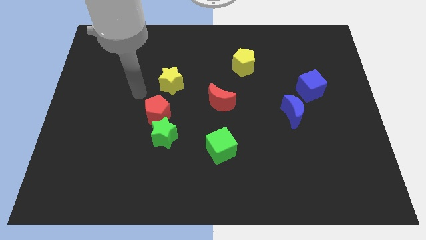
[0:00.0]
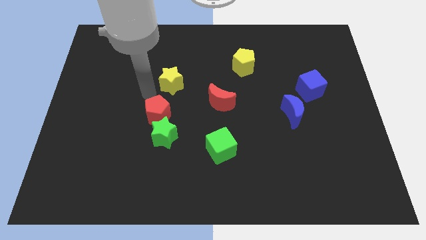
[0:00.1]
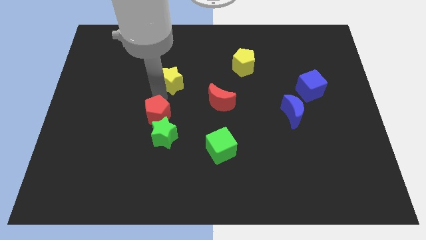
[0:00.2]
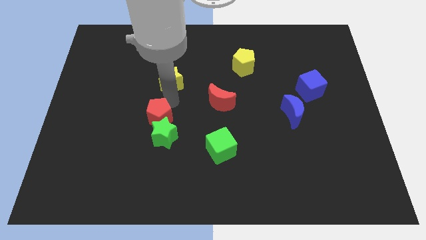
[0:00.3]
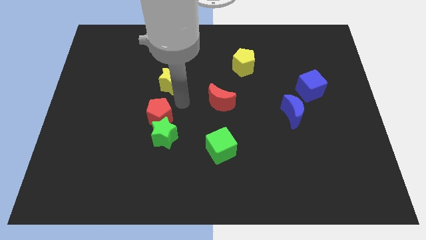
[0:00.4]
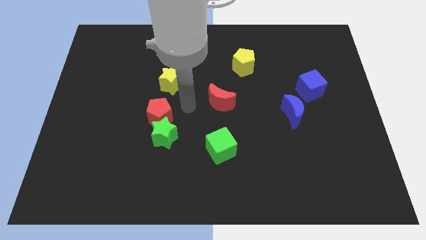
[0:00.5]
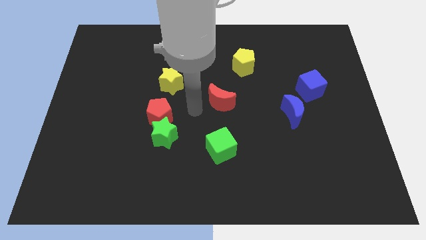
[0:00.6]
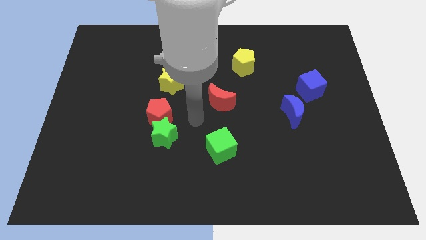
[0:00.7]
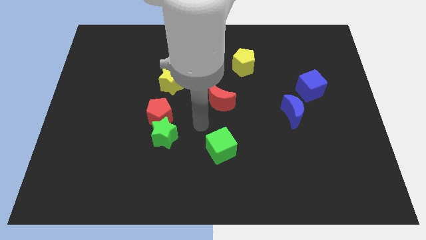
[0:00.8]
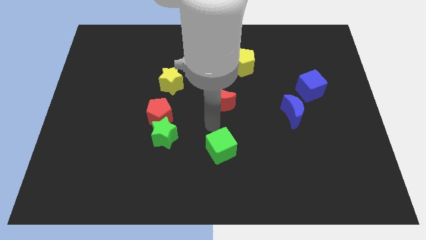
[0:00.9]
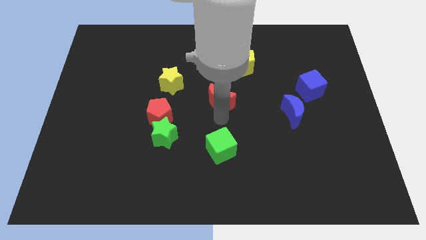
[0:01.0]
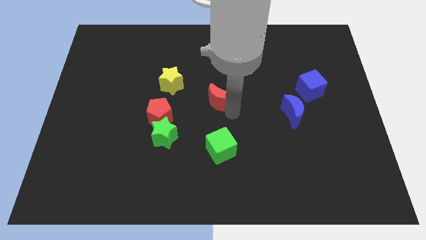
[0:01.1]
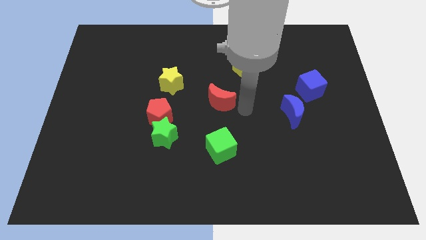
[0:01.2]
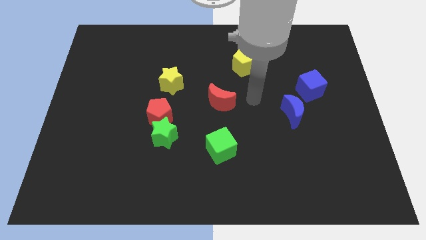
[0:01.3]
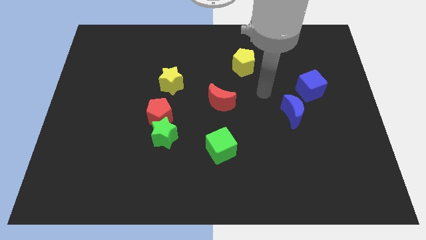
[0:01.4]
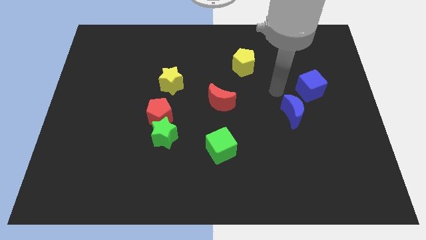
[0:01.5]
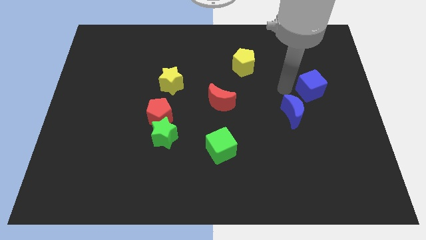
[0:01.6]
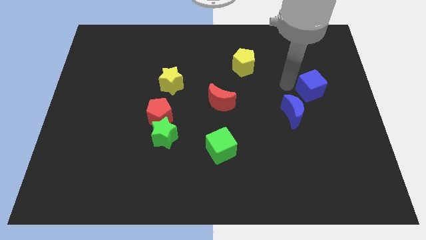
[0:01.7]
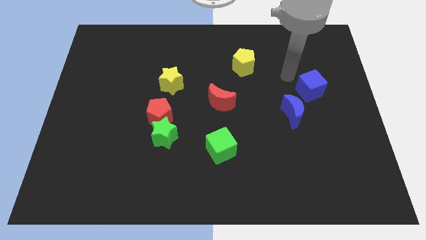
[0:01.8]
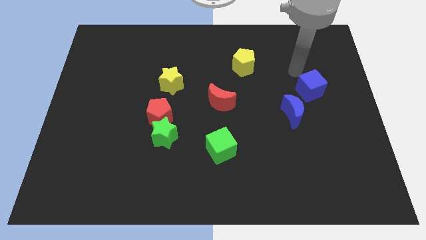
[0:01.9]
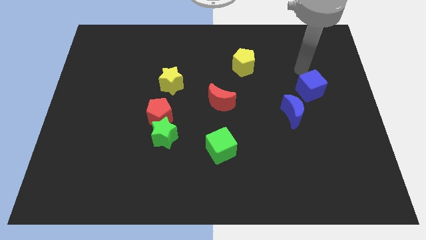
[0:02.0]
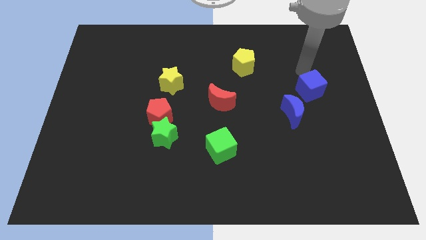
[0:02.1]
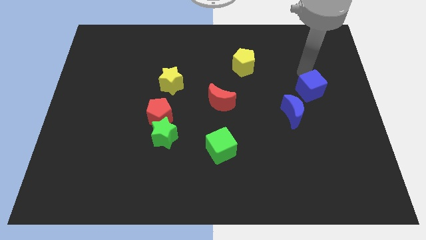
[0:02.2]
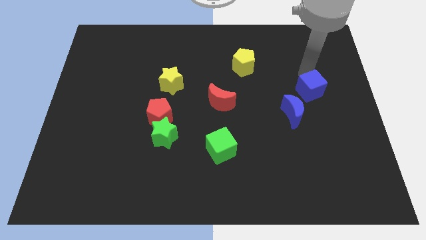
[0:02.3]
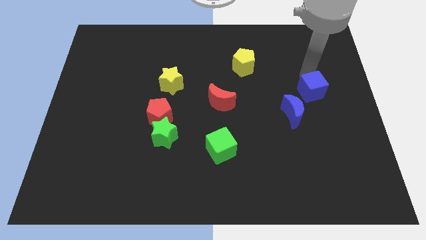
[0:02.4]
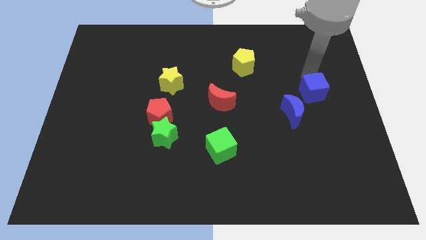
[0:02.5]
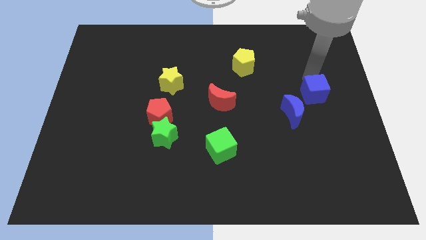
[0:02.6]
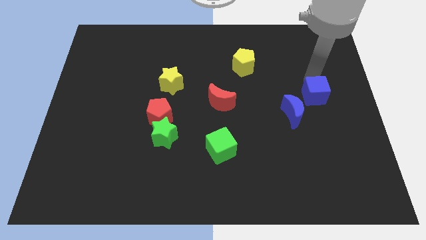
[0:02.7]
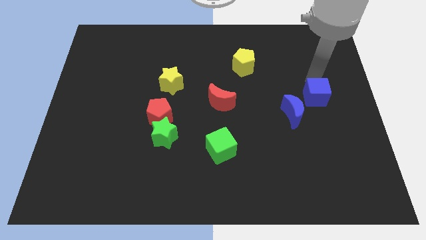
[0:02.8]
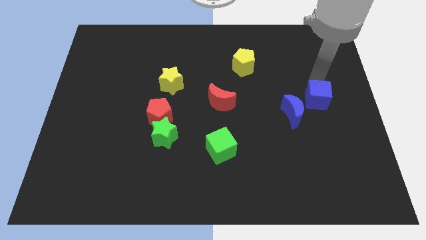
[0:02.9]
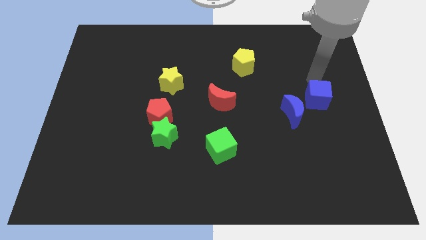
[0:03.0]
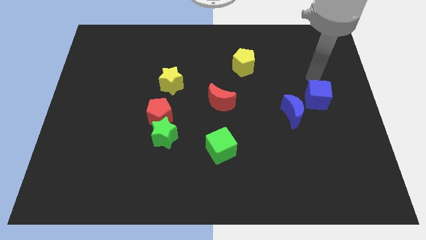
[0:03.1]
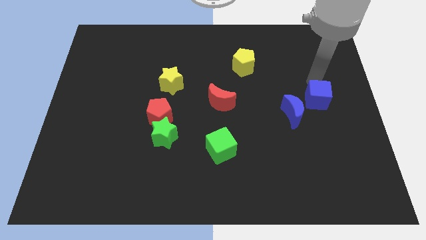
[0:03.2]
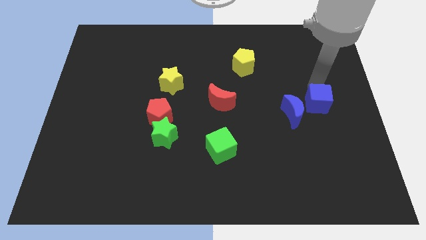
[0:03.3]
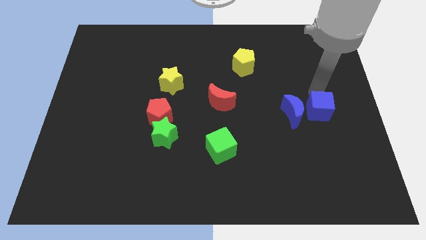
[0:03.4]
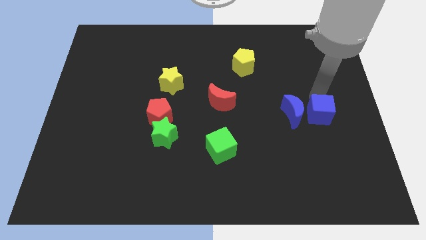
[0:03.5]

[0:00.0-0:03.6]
move the blue cube downwards a little

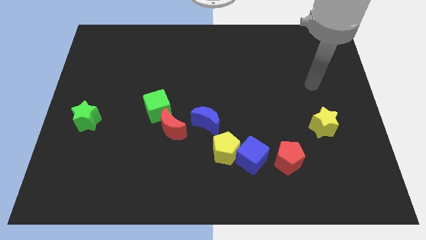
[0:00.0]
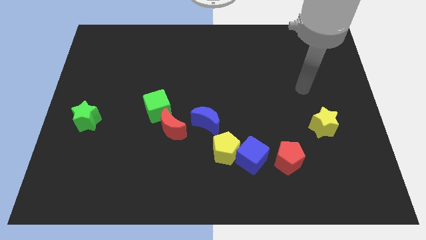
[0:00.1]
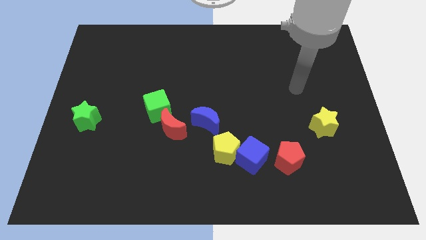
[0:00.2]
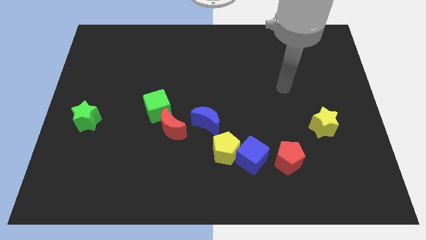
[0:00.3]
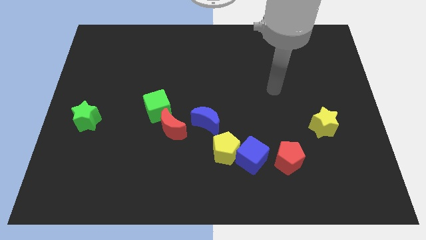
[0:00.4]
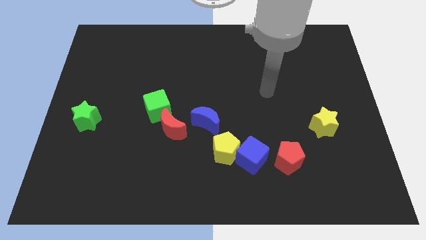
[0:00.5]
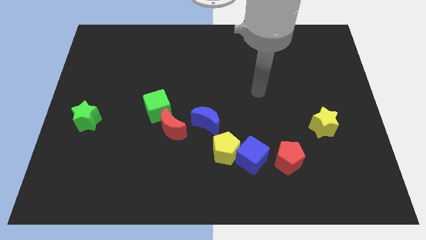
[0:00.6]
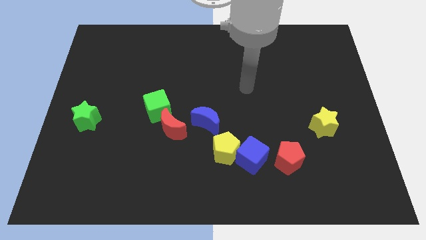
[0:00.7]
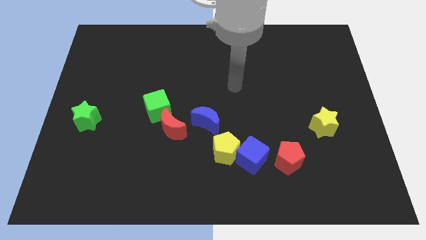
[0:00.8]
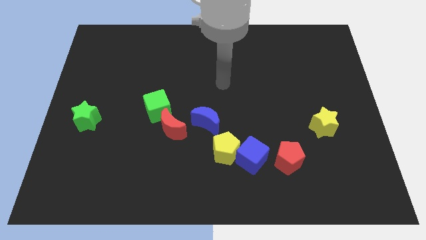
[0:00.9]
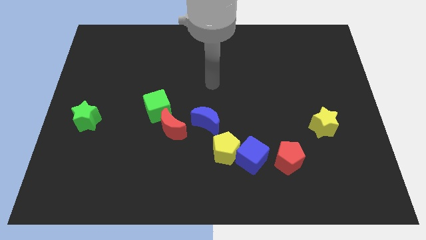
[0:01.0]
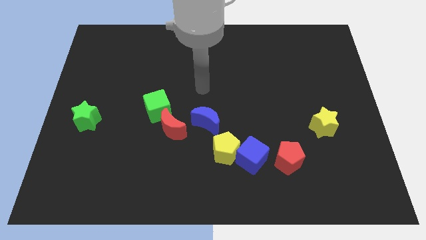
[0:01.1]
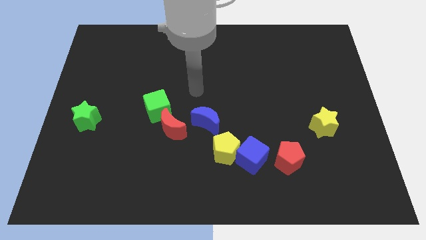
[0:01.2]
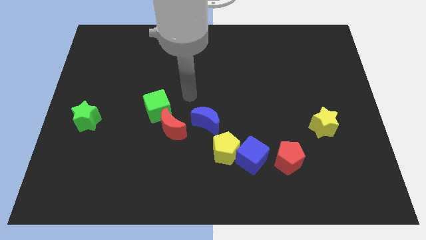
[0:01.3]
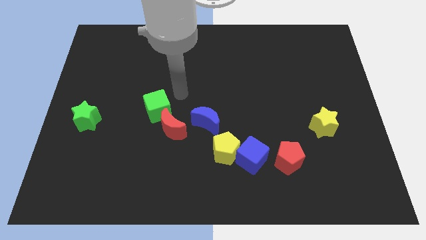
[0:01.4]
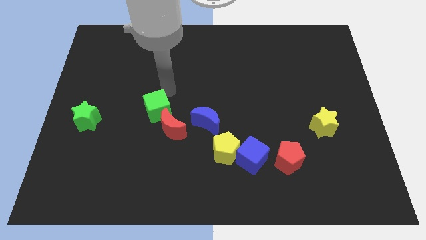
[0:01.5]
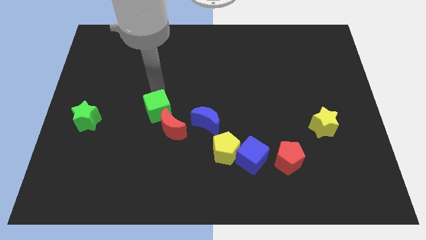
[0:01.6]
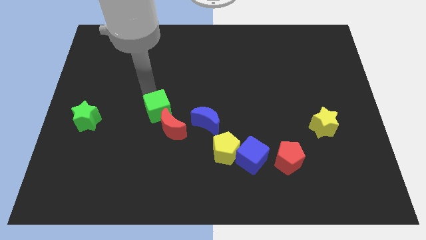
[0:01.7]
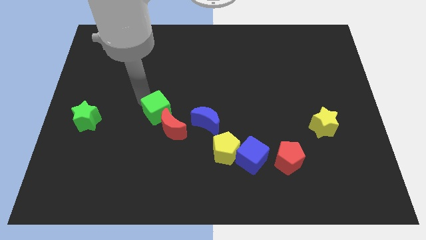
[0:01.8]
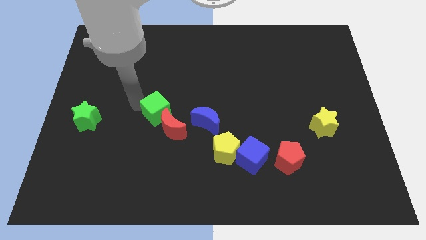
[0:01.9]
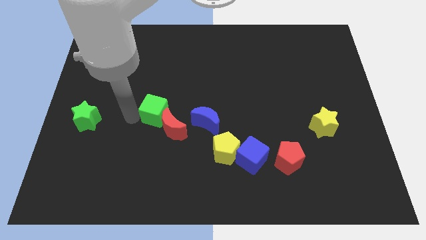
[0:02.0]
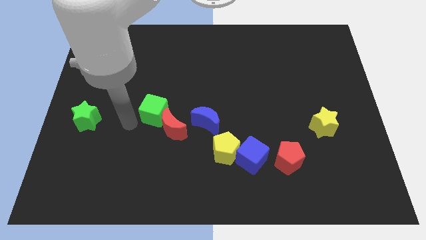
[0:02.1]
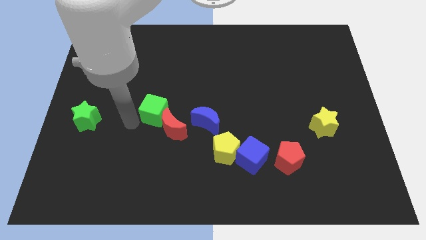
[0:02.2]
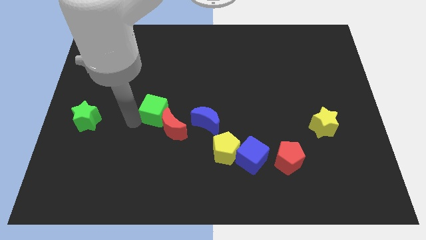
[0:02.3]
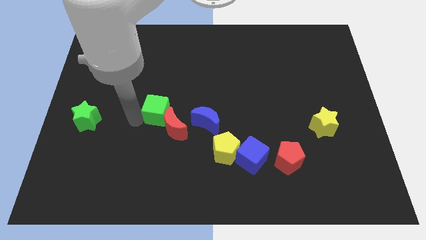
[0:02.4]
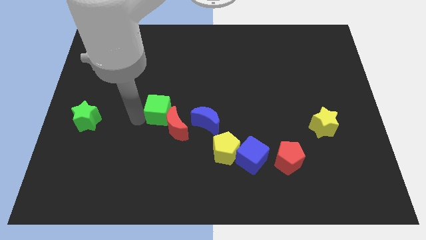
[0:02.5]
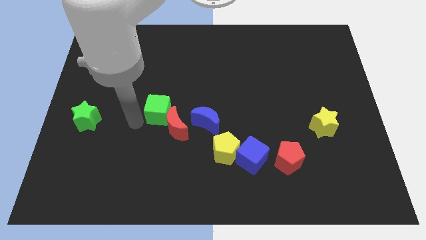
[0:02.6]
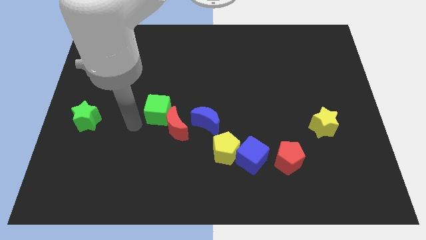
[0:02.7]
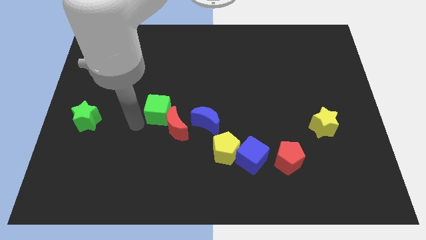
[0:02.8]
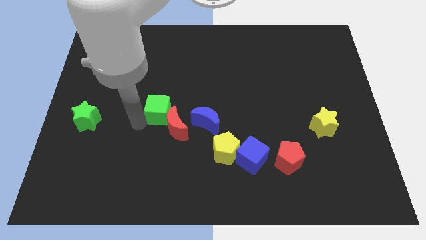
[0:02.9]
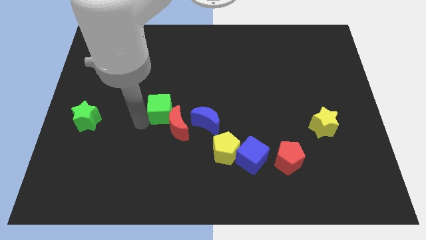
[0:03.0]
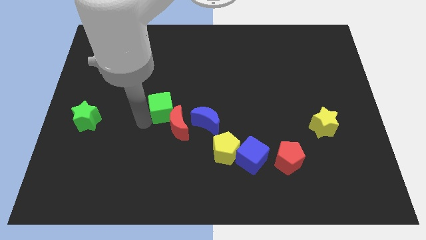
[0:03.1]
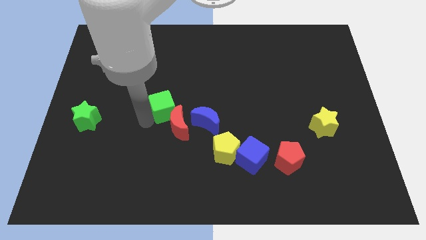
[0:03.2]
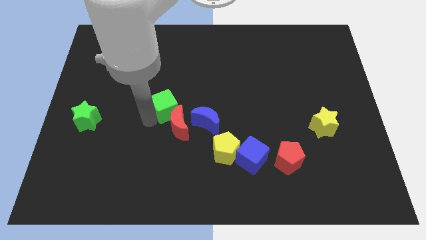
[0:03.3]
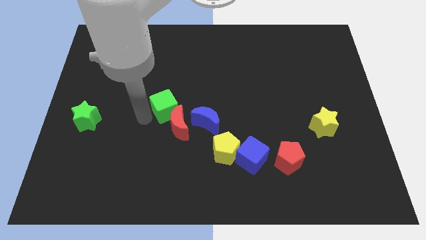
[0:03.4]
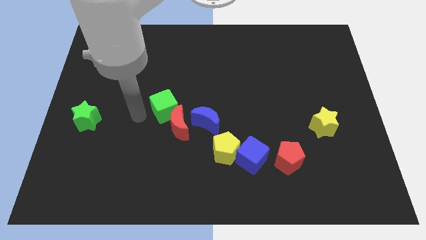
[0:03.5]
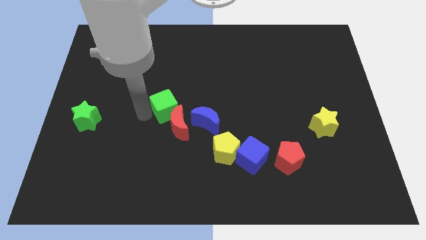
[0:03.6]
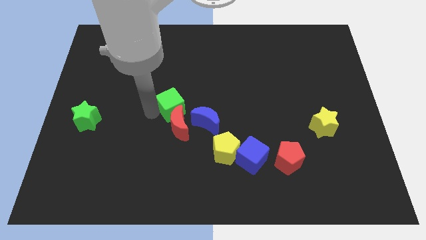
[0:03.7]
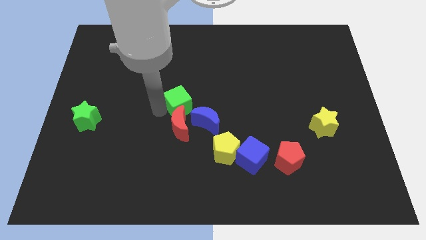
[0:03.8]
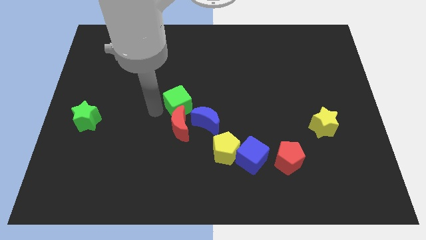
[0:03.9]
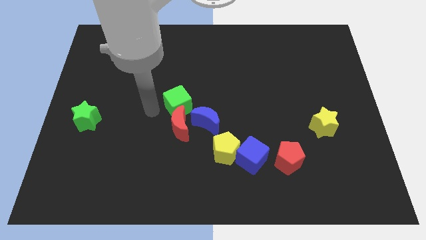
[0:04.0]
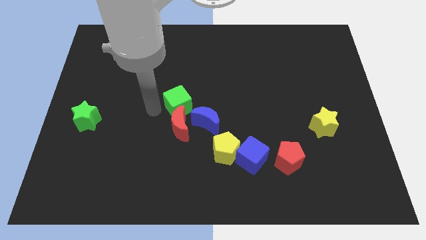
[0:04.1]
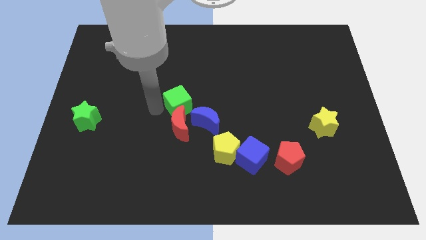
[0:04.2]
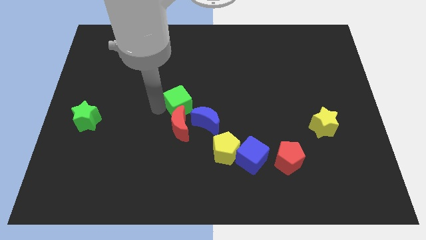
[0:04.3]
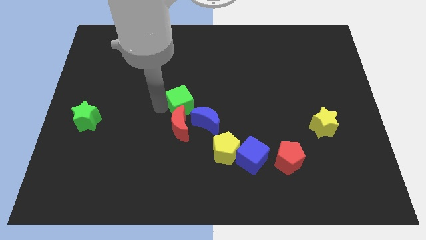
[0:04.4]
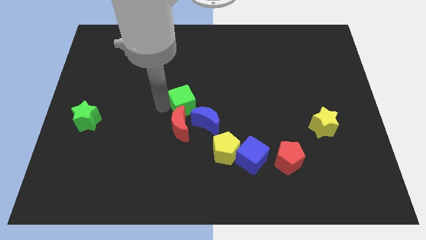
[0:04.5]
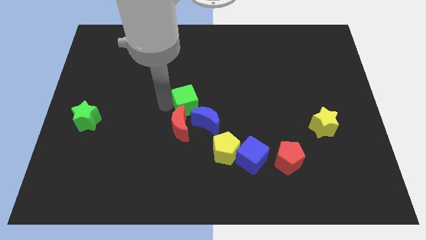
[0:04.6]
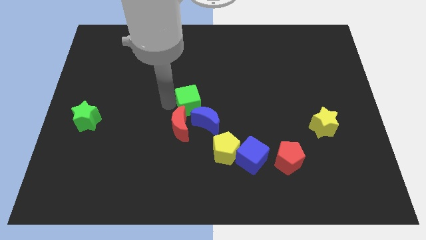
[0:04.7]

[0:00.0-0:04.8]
slide the green cube slightly to the right
